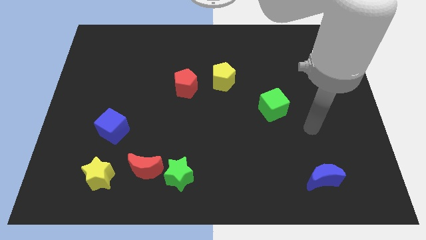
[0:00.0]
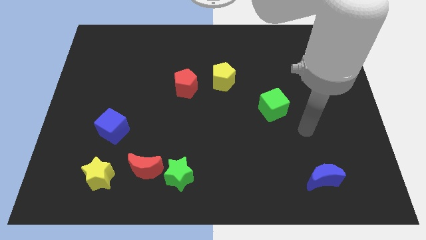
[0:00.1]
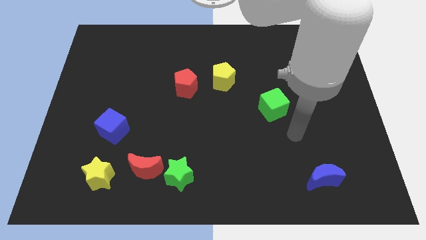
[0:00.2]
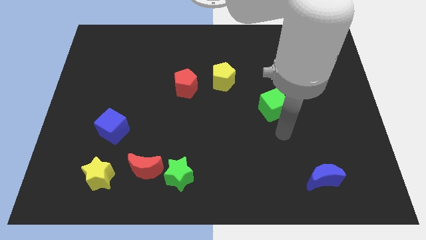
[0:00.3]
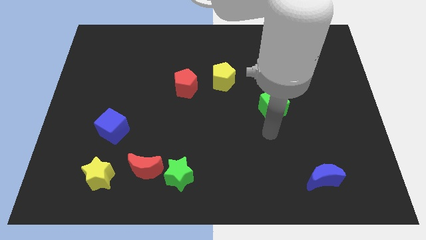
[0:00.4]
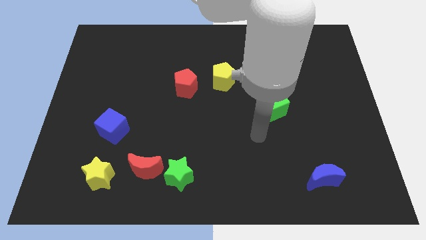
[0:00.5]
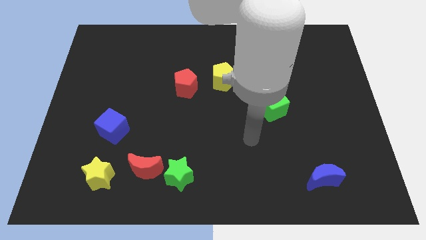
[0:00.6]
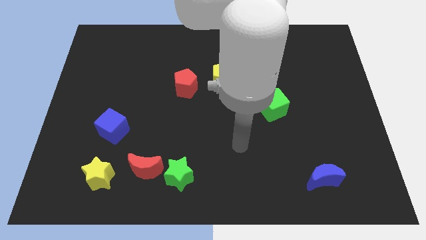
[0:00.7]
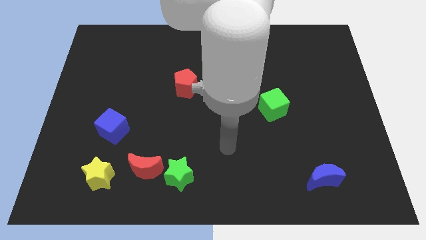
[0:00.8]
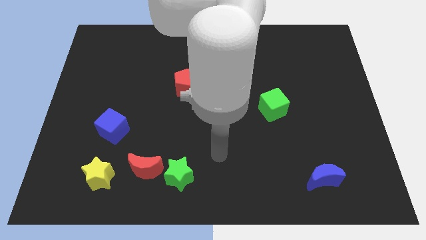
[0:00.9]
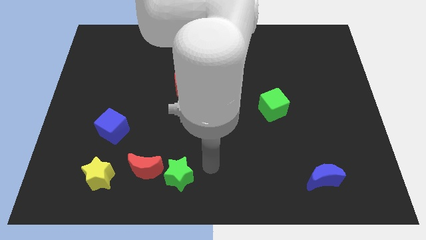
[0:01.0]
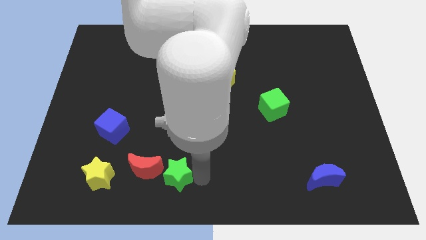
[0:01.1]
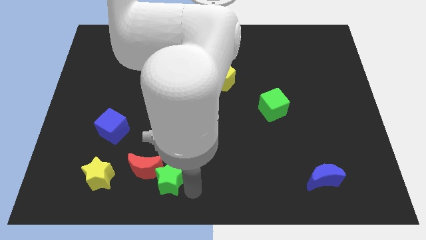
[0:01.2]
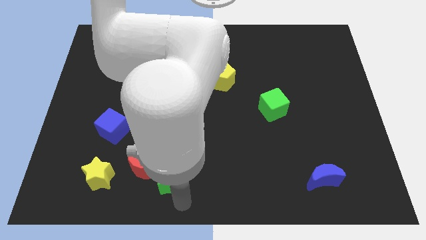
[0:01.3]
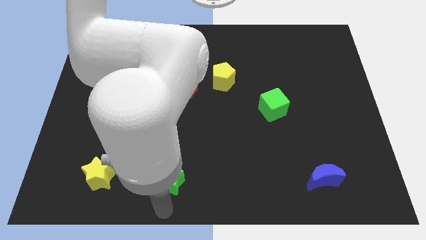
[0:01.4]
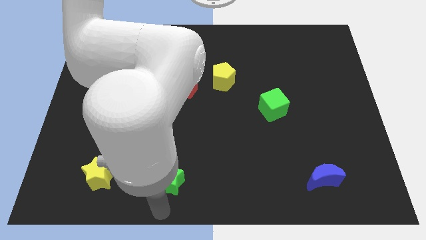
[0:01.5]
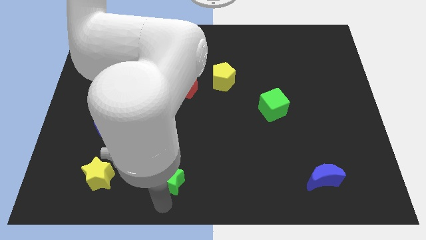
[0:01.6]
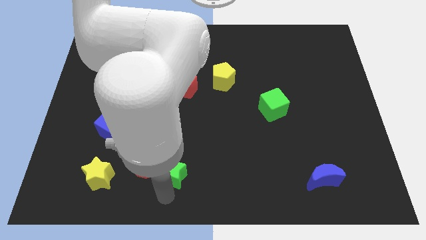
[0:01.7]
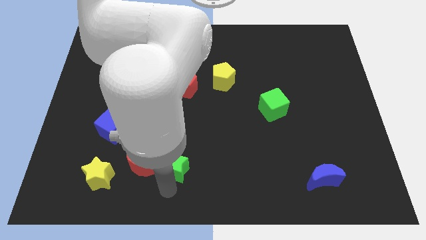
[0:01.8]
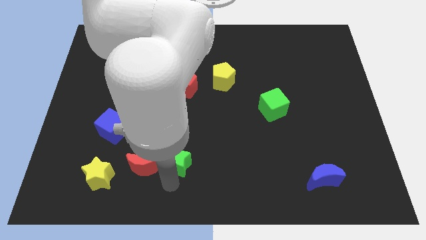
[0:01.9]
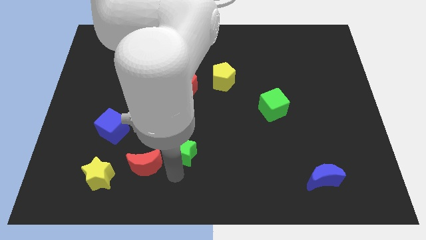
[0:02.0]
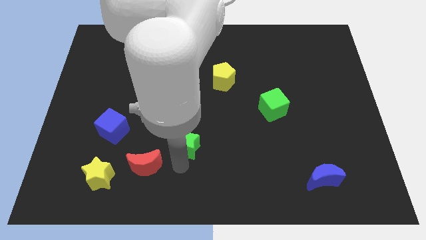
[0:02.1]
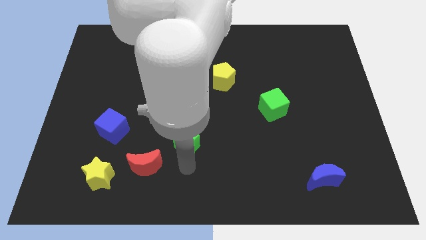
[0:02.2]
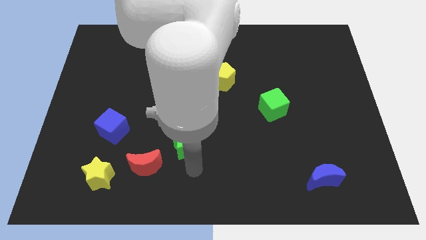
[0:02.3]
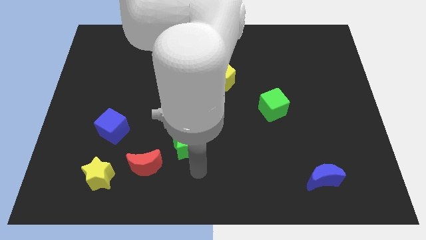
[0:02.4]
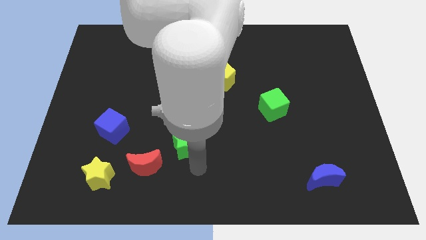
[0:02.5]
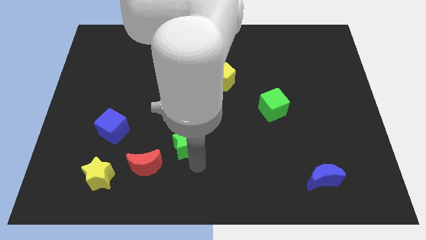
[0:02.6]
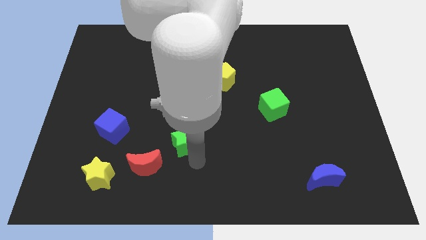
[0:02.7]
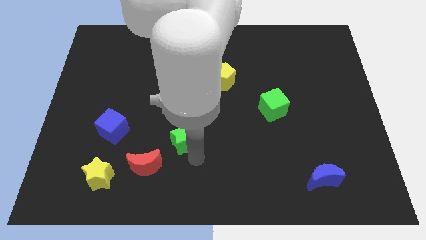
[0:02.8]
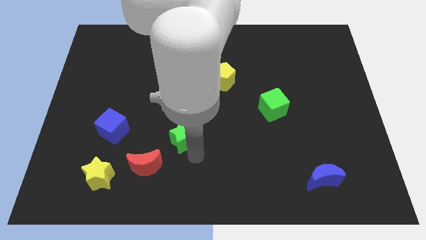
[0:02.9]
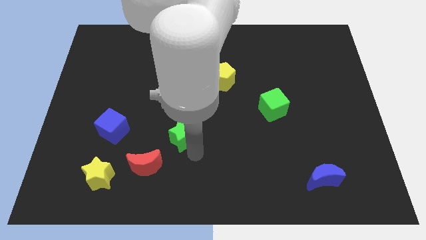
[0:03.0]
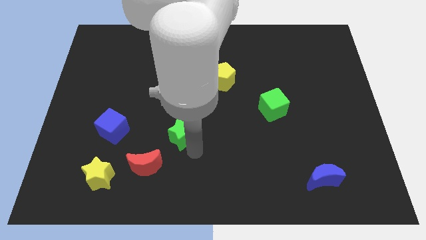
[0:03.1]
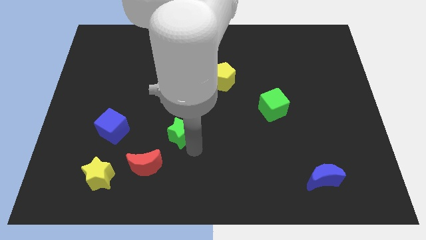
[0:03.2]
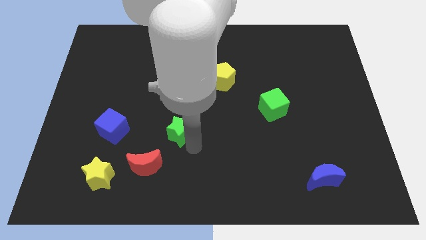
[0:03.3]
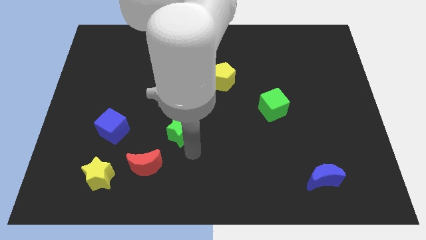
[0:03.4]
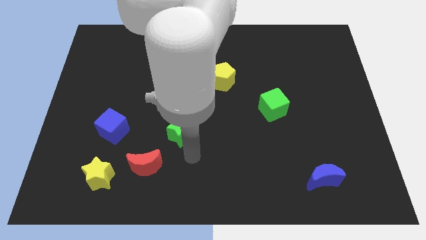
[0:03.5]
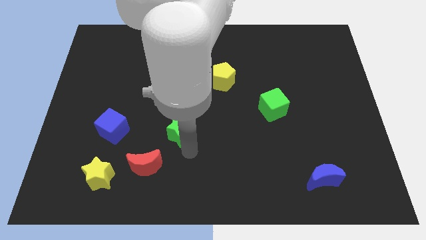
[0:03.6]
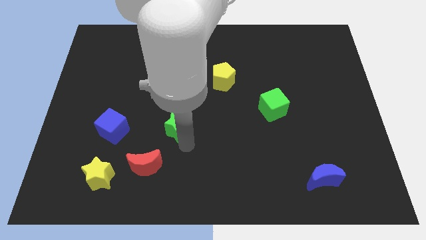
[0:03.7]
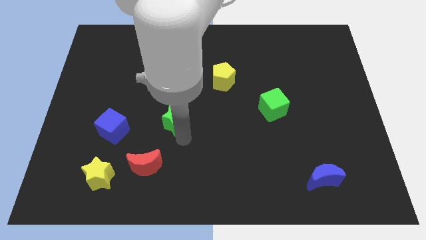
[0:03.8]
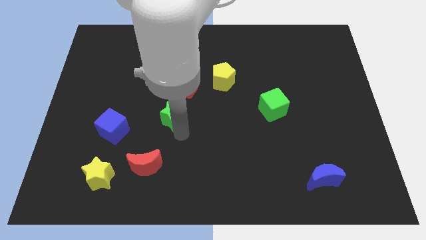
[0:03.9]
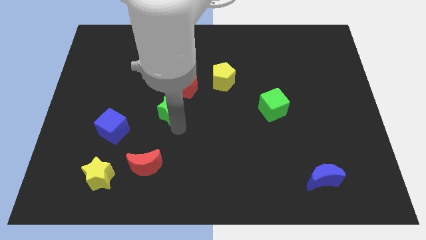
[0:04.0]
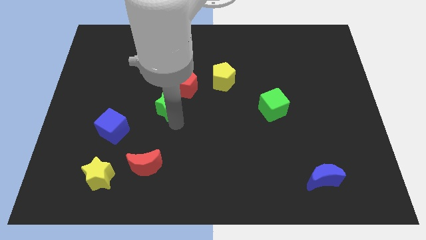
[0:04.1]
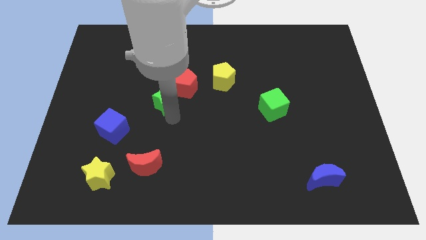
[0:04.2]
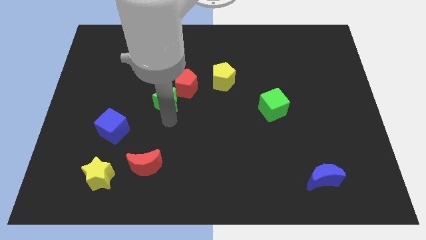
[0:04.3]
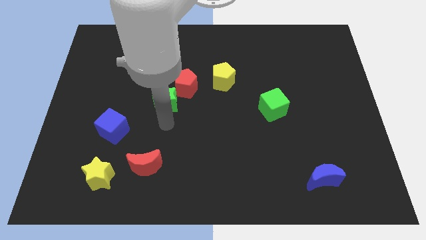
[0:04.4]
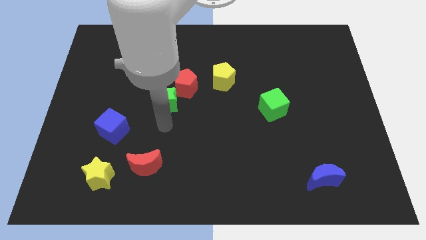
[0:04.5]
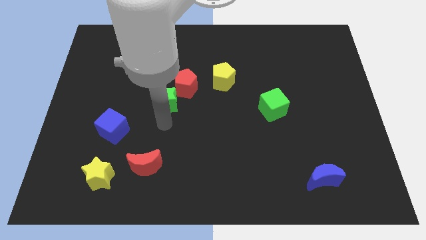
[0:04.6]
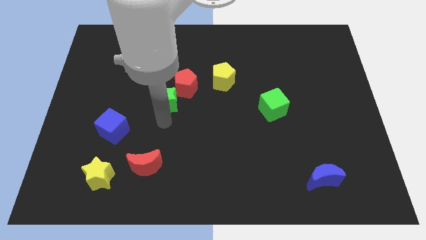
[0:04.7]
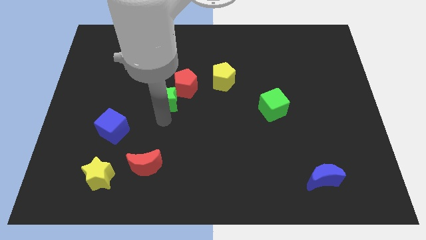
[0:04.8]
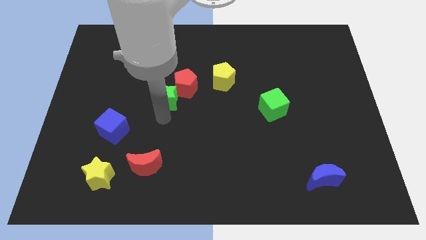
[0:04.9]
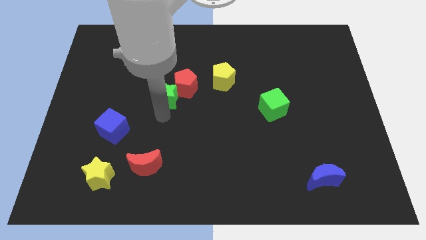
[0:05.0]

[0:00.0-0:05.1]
slide the green star upwards

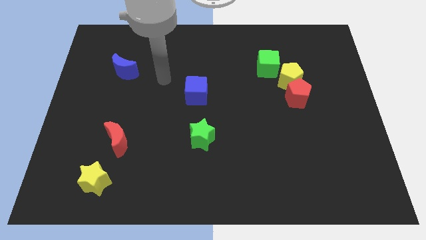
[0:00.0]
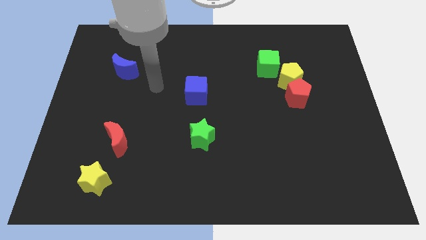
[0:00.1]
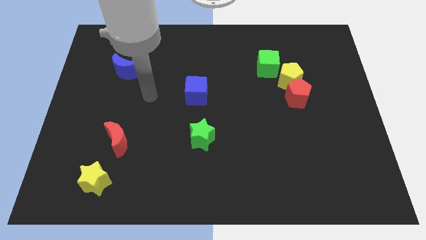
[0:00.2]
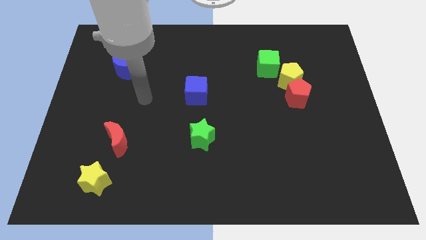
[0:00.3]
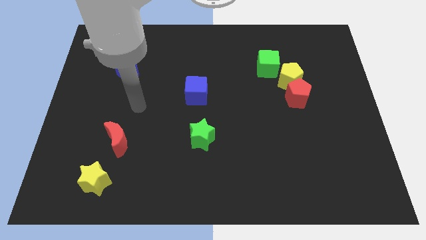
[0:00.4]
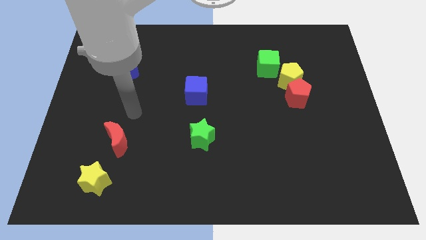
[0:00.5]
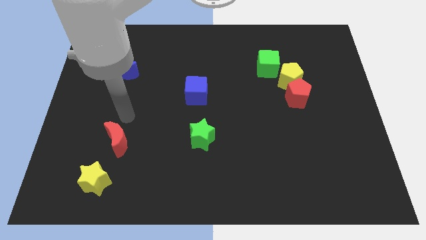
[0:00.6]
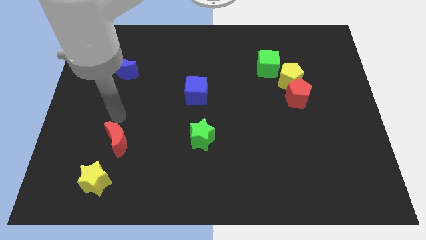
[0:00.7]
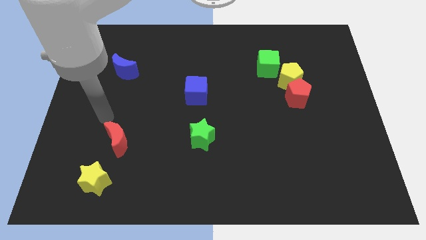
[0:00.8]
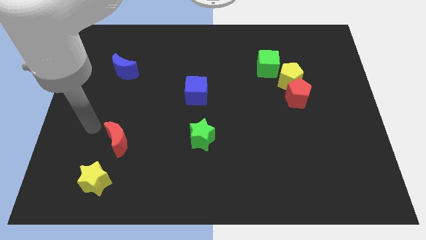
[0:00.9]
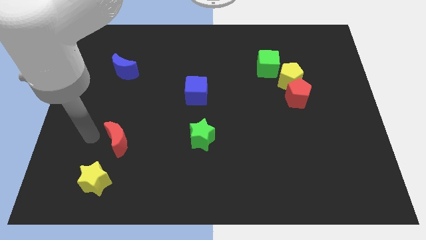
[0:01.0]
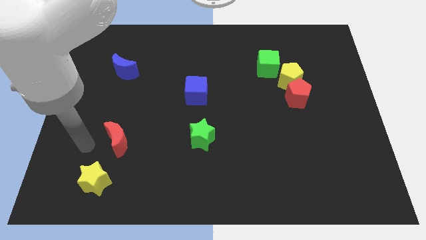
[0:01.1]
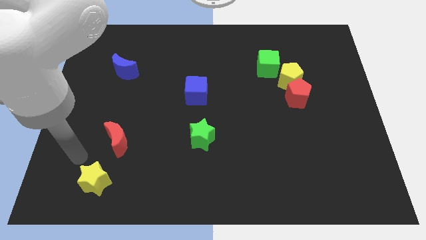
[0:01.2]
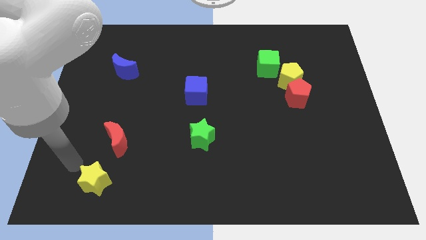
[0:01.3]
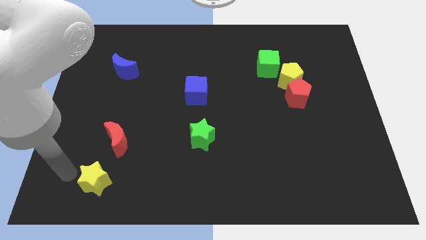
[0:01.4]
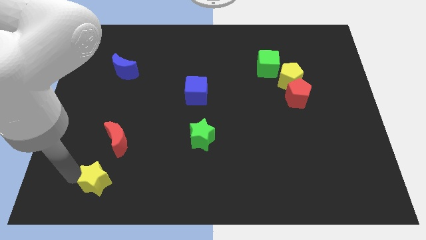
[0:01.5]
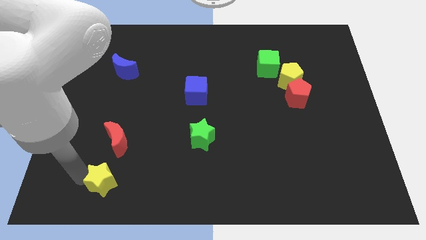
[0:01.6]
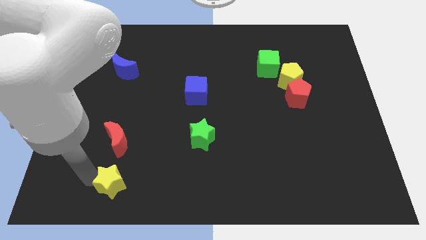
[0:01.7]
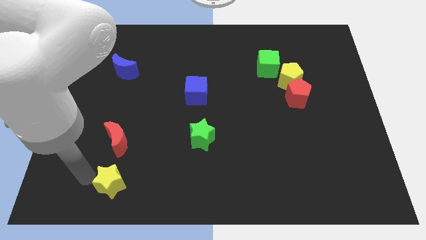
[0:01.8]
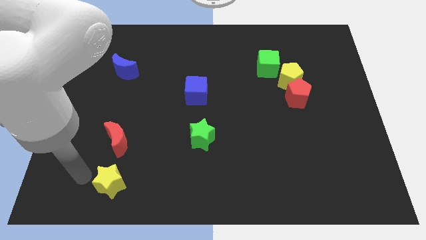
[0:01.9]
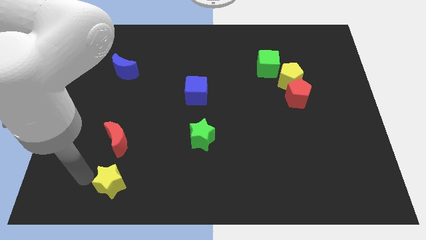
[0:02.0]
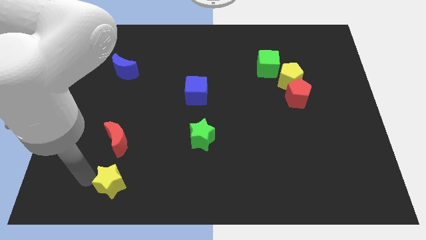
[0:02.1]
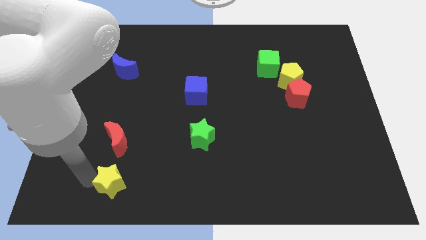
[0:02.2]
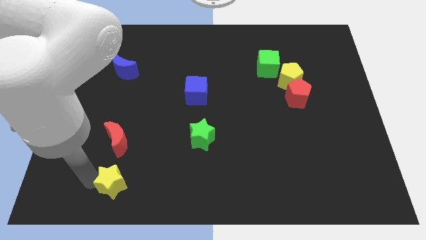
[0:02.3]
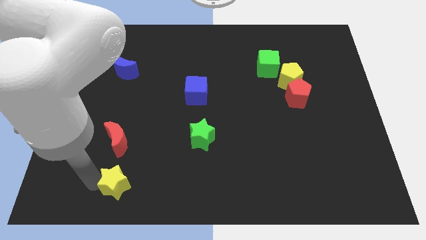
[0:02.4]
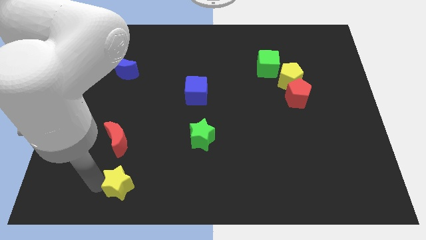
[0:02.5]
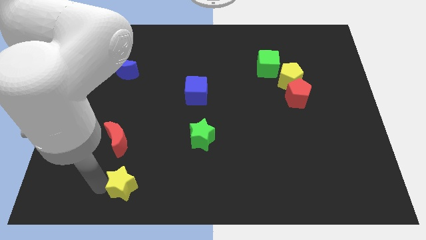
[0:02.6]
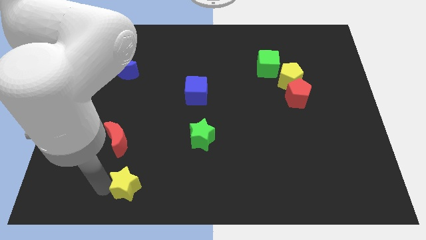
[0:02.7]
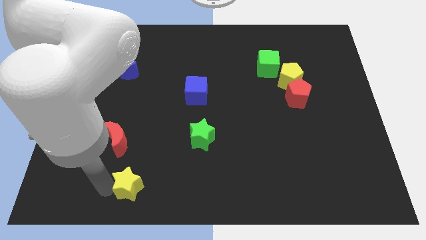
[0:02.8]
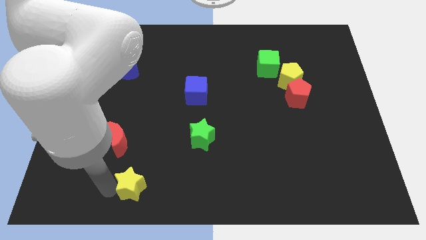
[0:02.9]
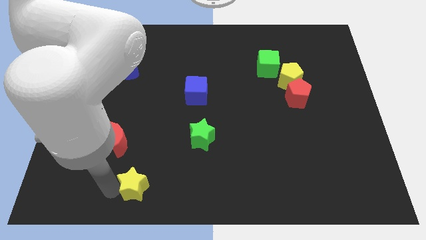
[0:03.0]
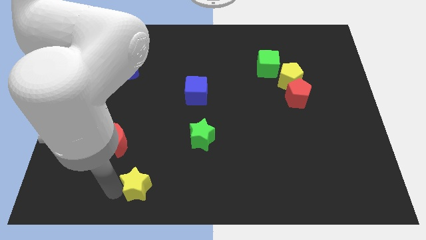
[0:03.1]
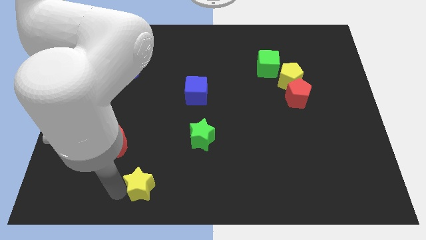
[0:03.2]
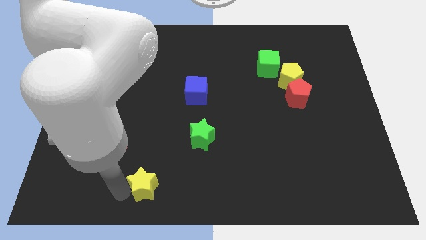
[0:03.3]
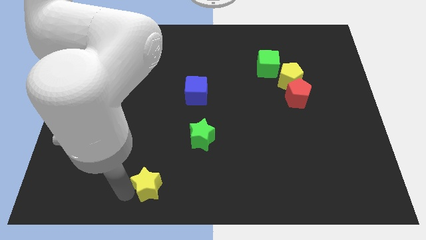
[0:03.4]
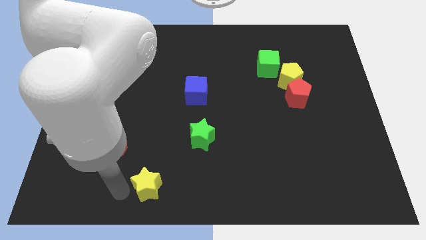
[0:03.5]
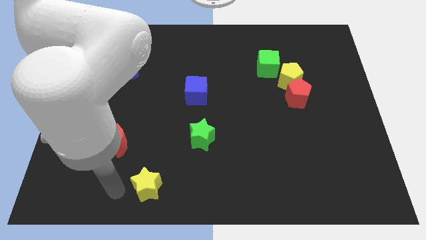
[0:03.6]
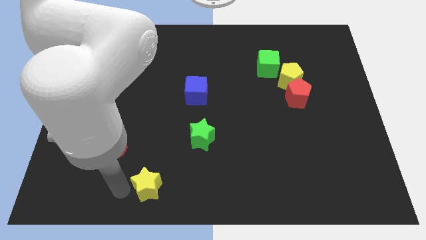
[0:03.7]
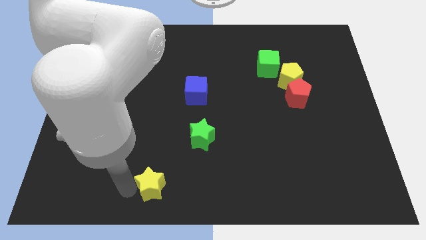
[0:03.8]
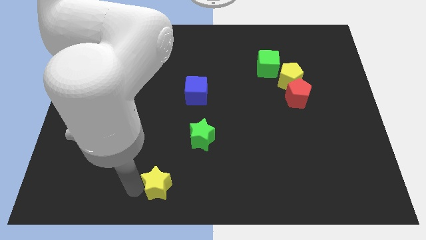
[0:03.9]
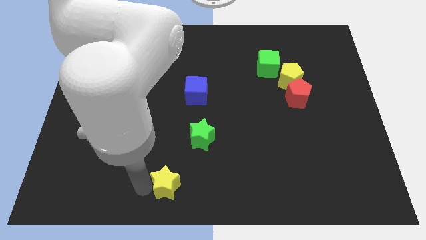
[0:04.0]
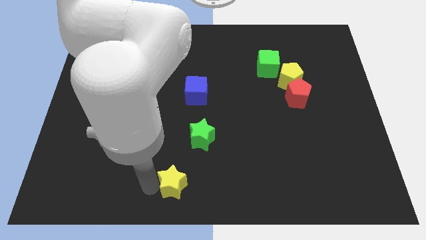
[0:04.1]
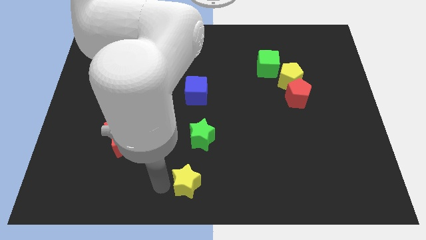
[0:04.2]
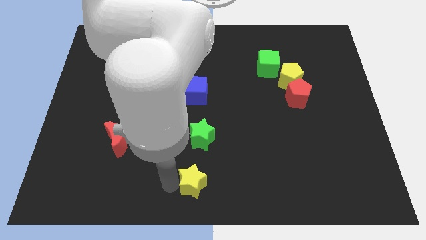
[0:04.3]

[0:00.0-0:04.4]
move the yellow star to the right
